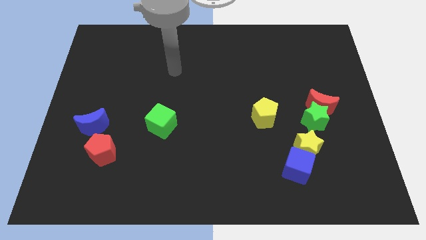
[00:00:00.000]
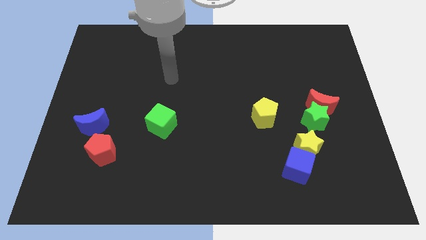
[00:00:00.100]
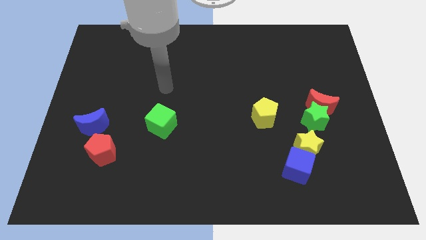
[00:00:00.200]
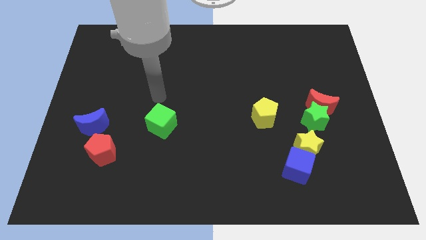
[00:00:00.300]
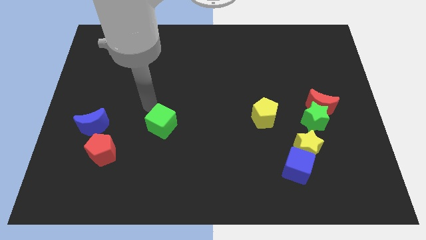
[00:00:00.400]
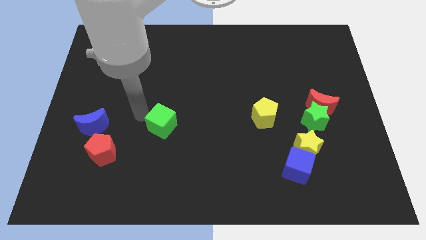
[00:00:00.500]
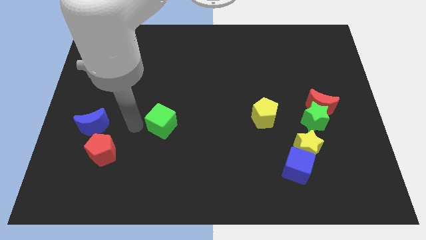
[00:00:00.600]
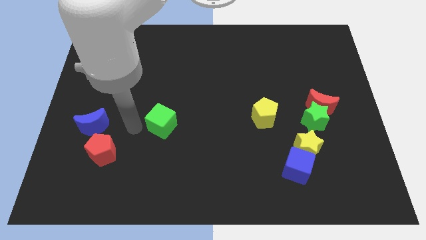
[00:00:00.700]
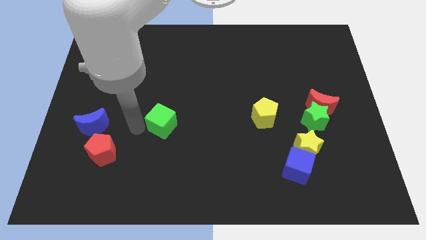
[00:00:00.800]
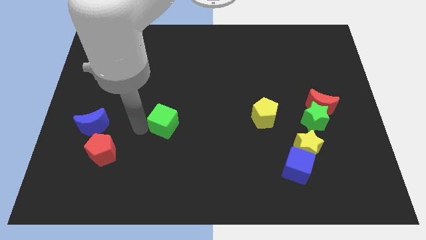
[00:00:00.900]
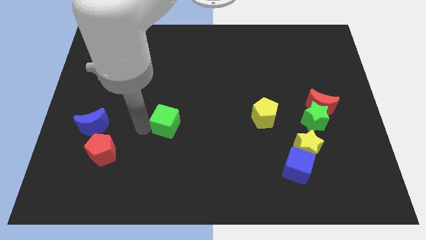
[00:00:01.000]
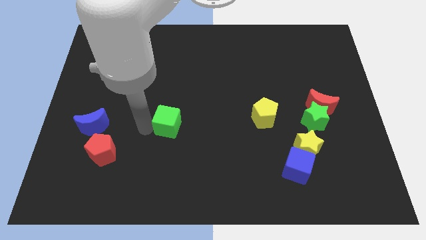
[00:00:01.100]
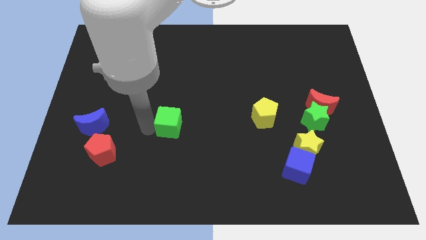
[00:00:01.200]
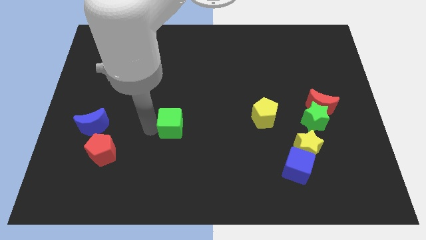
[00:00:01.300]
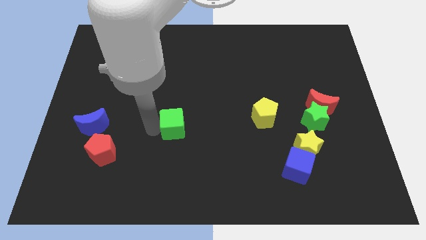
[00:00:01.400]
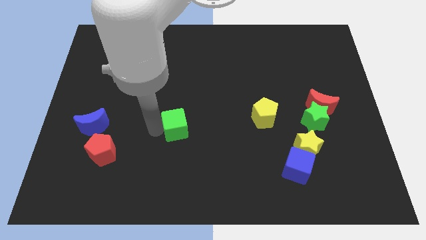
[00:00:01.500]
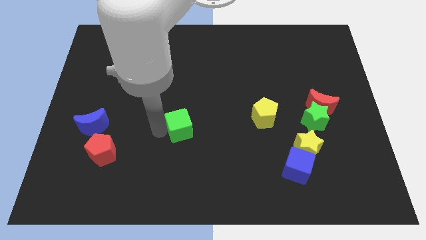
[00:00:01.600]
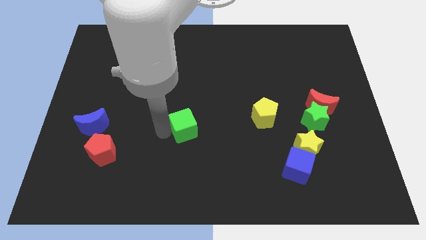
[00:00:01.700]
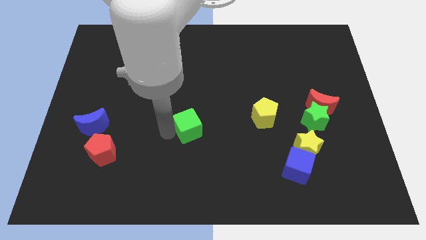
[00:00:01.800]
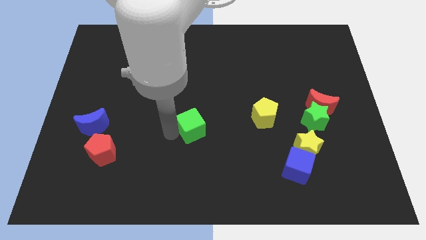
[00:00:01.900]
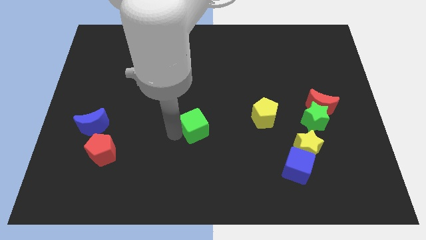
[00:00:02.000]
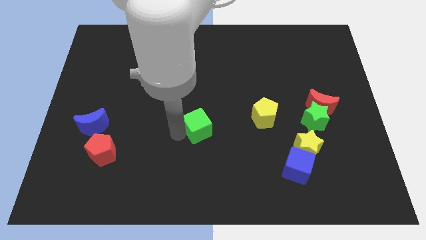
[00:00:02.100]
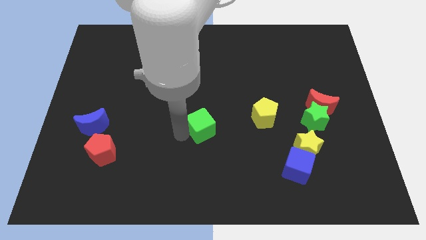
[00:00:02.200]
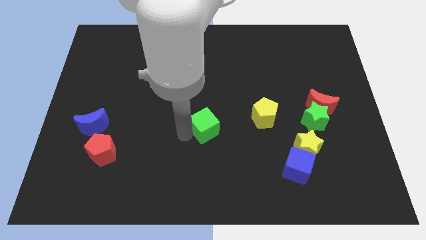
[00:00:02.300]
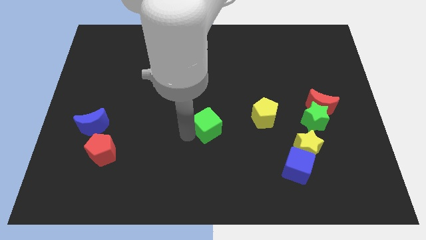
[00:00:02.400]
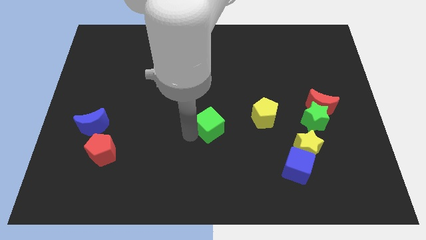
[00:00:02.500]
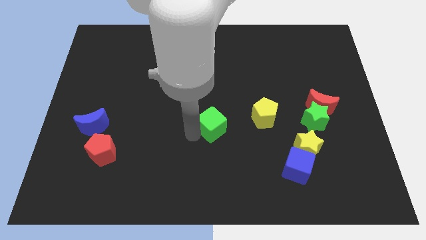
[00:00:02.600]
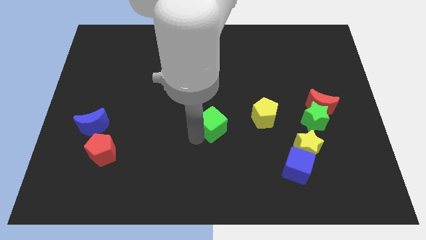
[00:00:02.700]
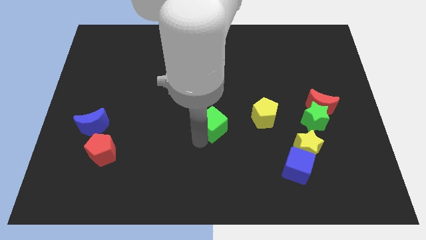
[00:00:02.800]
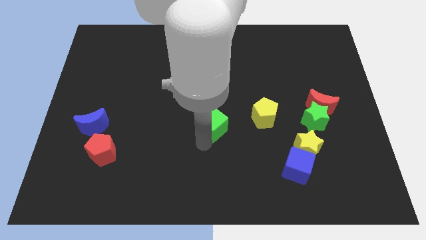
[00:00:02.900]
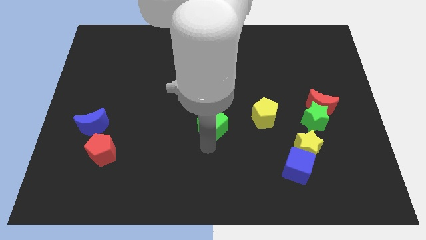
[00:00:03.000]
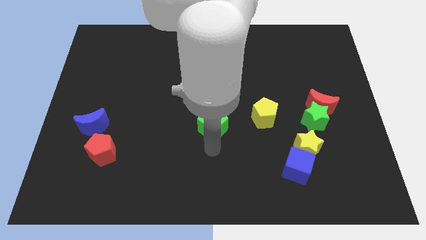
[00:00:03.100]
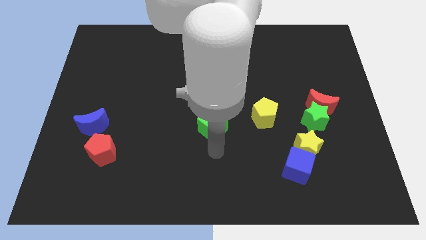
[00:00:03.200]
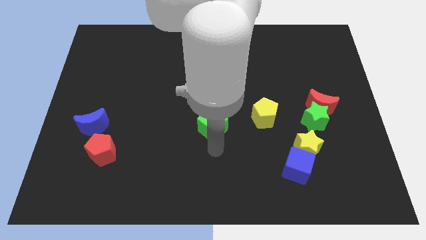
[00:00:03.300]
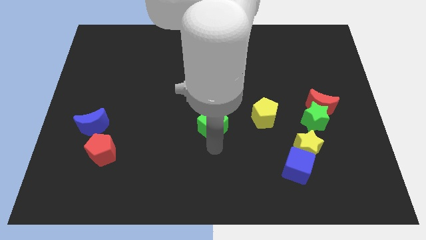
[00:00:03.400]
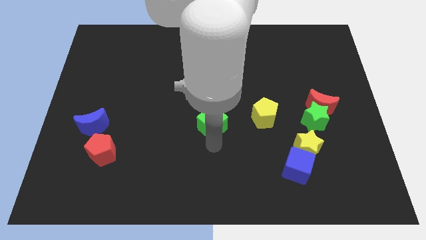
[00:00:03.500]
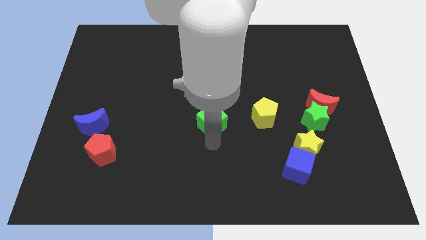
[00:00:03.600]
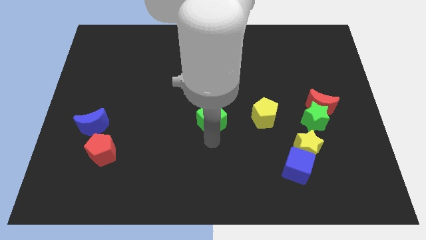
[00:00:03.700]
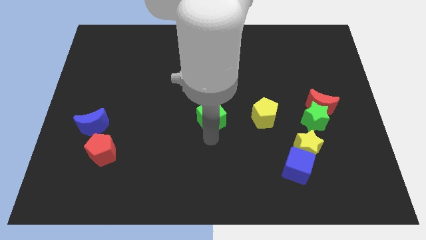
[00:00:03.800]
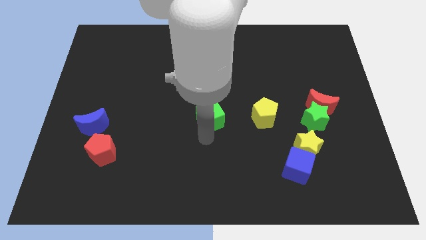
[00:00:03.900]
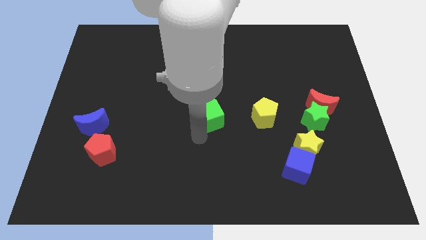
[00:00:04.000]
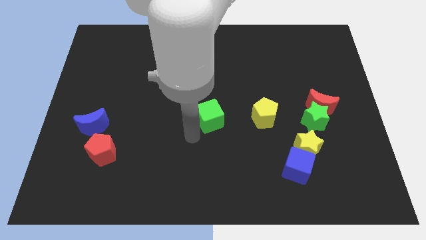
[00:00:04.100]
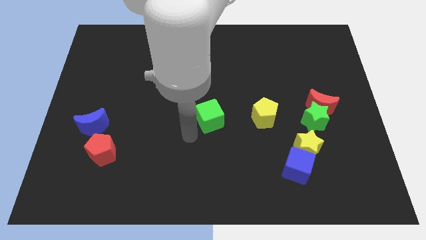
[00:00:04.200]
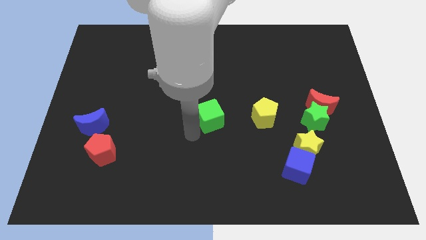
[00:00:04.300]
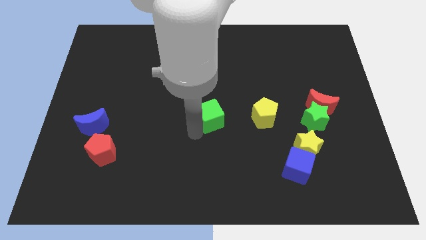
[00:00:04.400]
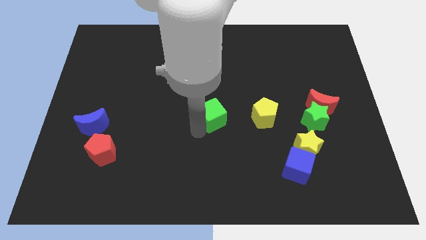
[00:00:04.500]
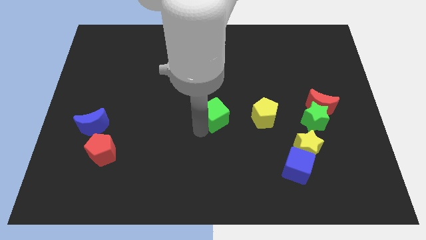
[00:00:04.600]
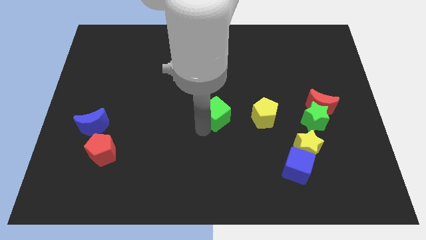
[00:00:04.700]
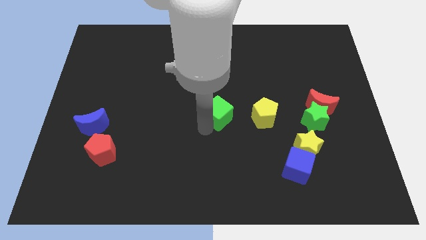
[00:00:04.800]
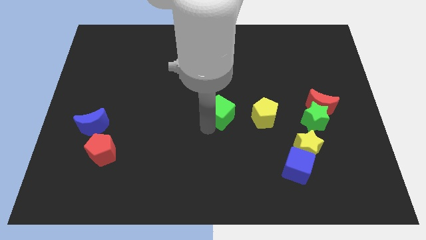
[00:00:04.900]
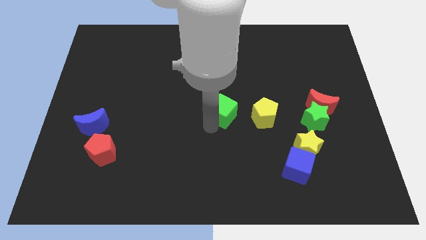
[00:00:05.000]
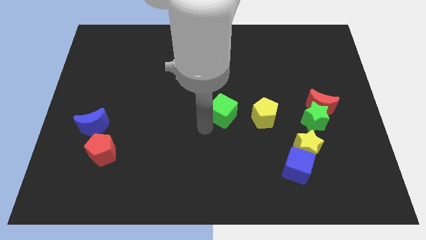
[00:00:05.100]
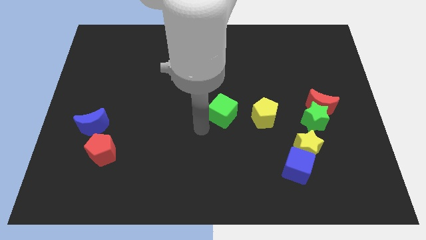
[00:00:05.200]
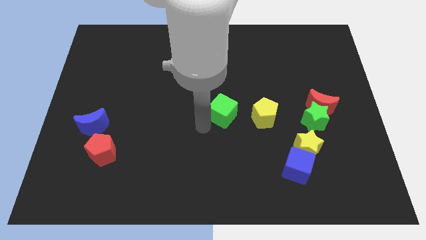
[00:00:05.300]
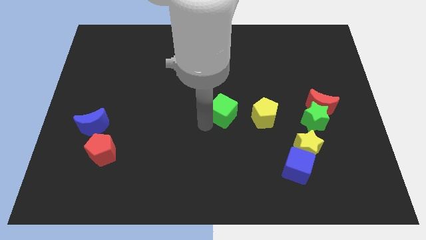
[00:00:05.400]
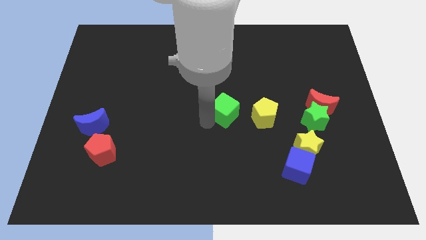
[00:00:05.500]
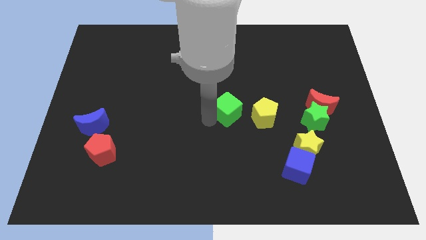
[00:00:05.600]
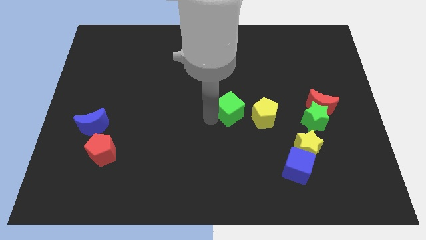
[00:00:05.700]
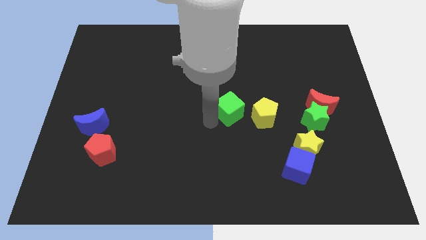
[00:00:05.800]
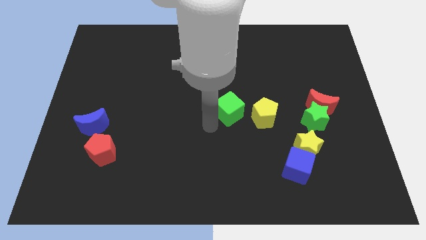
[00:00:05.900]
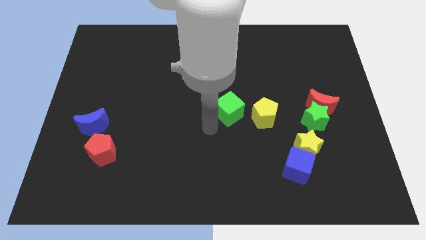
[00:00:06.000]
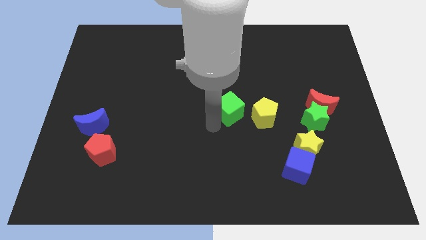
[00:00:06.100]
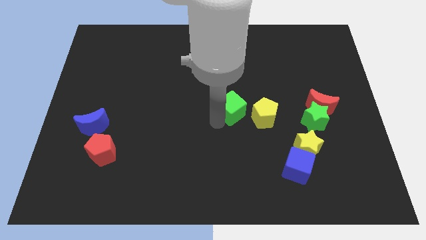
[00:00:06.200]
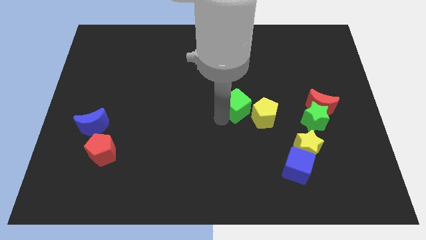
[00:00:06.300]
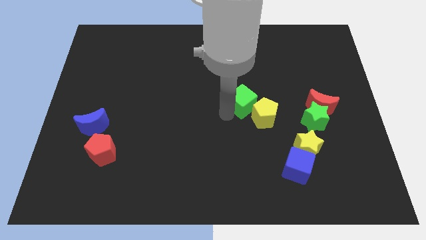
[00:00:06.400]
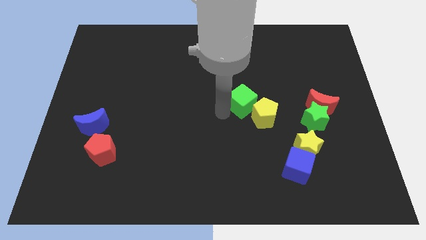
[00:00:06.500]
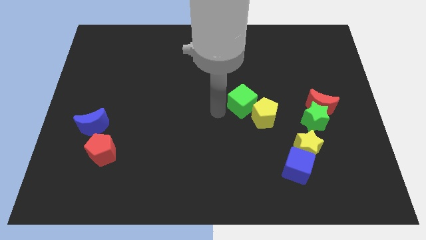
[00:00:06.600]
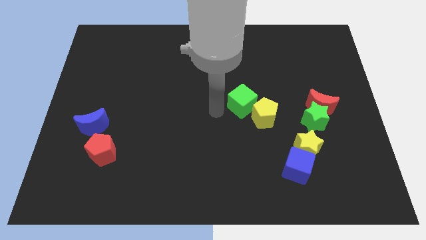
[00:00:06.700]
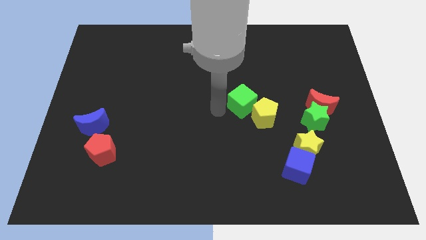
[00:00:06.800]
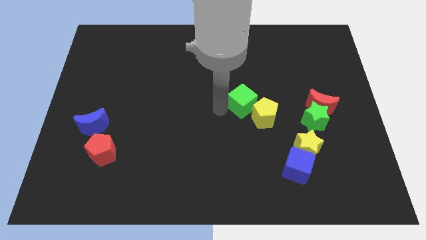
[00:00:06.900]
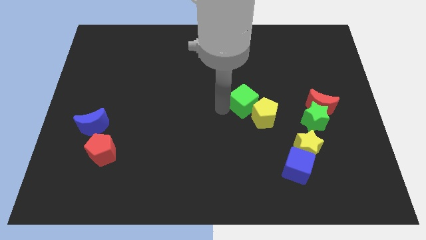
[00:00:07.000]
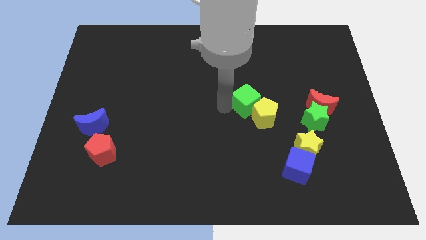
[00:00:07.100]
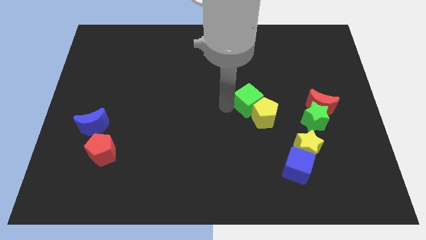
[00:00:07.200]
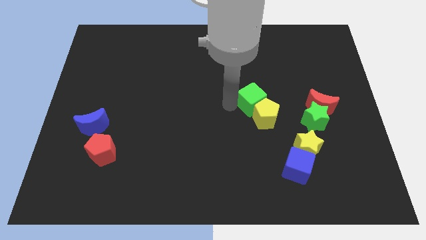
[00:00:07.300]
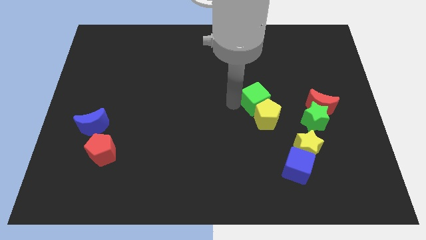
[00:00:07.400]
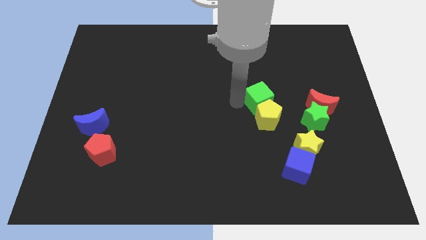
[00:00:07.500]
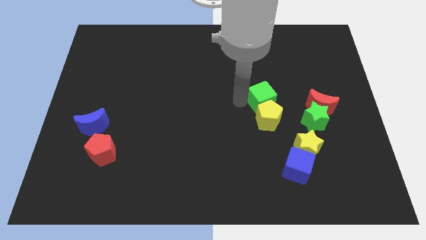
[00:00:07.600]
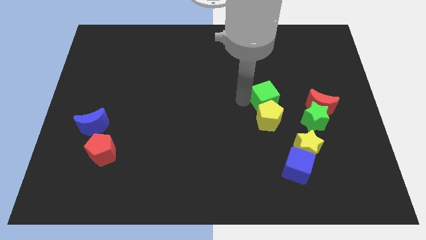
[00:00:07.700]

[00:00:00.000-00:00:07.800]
move the green cube to the top left side of the green star
